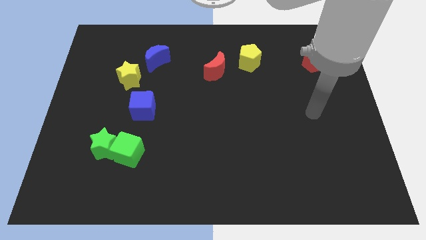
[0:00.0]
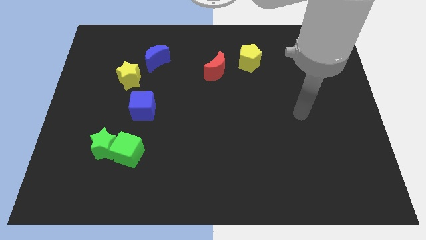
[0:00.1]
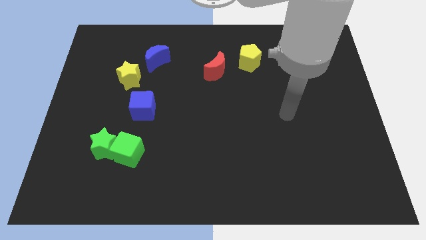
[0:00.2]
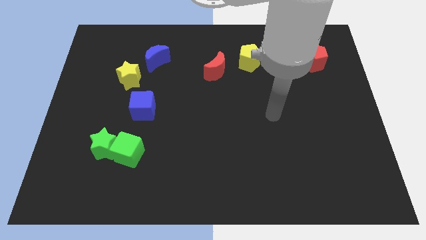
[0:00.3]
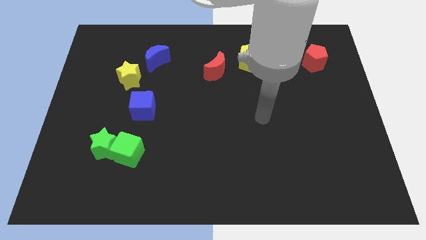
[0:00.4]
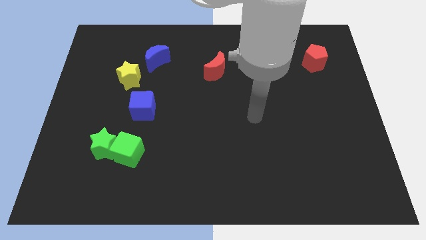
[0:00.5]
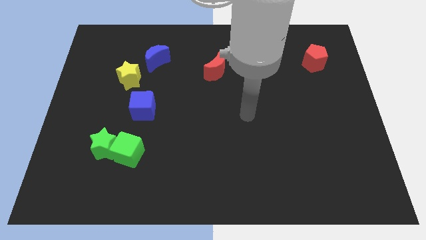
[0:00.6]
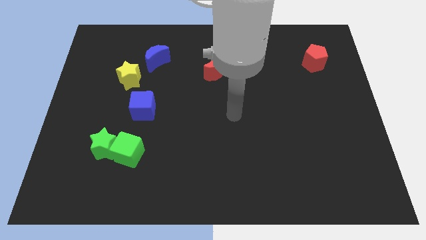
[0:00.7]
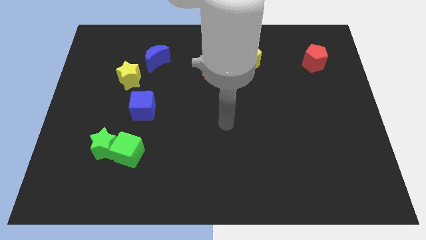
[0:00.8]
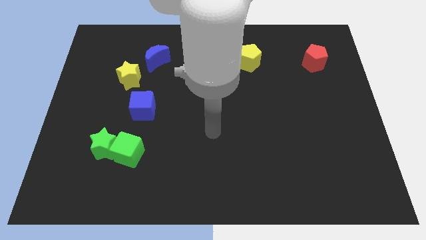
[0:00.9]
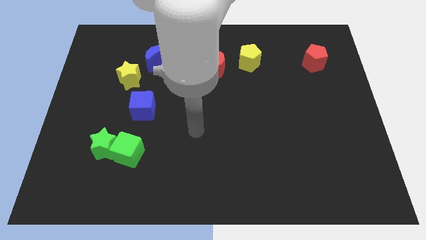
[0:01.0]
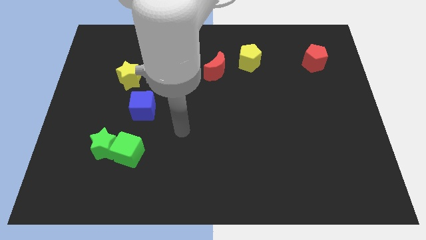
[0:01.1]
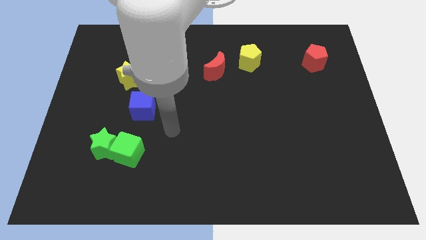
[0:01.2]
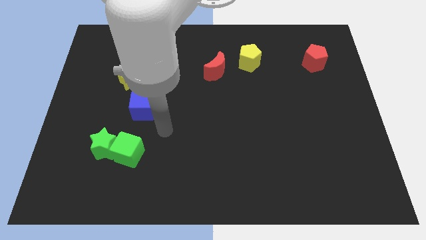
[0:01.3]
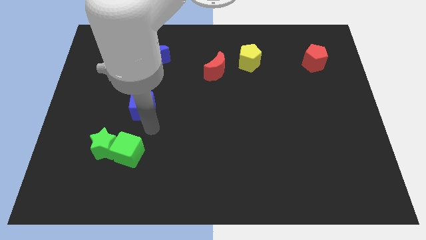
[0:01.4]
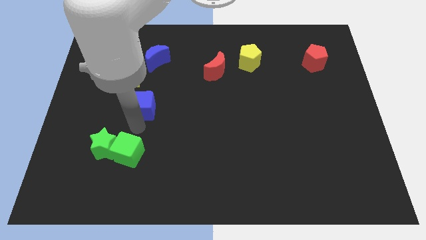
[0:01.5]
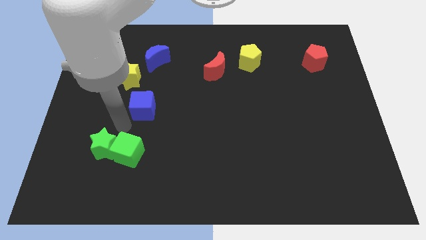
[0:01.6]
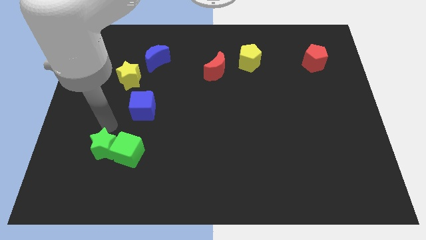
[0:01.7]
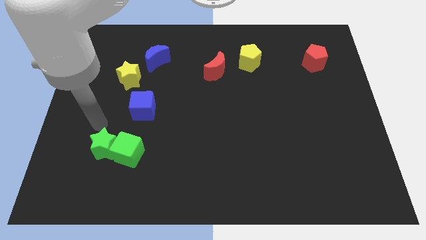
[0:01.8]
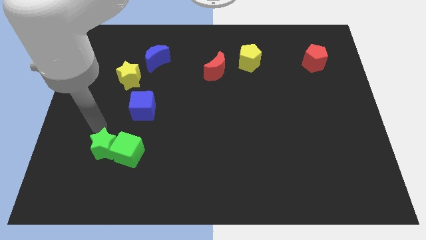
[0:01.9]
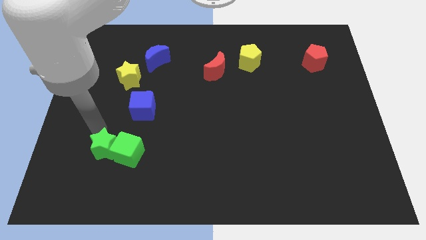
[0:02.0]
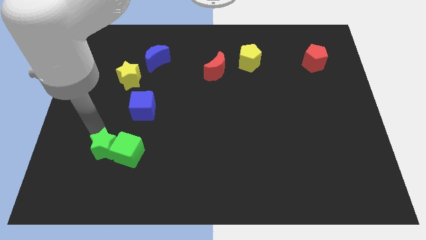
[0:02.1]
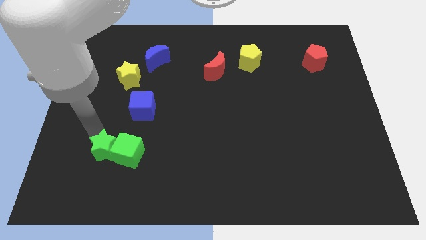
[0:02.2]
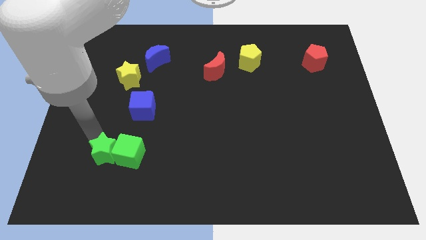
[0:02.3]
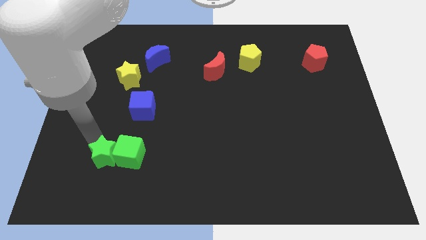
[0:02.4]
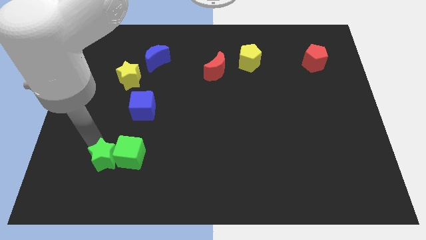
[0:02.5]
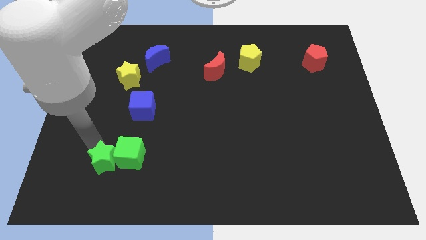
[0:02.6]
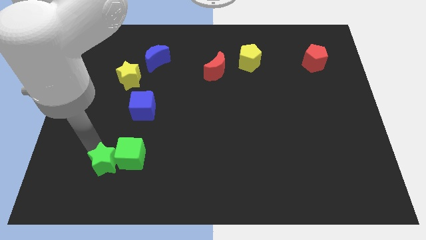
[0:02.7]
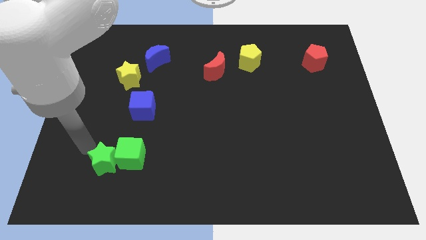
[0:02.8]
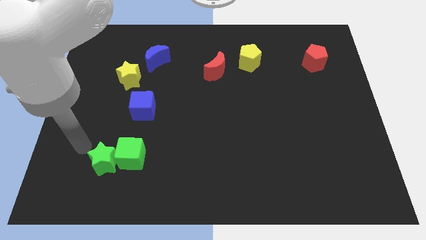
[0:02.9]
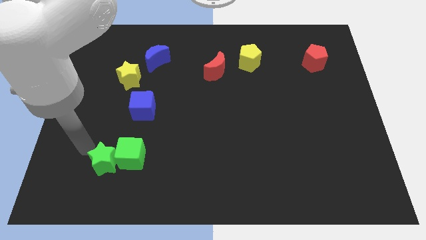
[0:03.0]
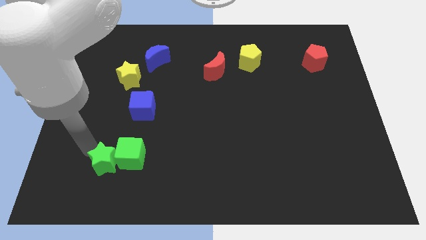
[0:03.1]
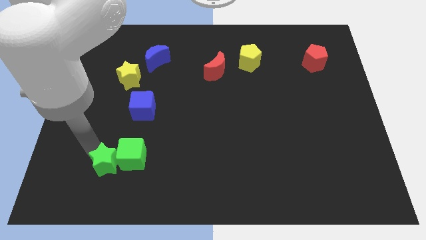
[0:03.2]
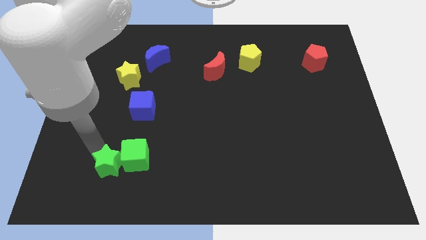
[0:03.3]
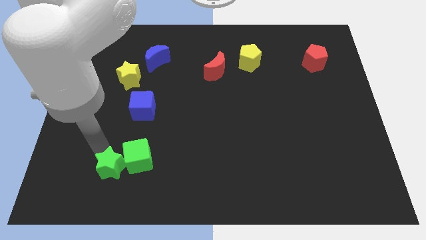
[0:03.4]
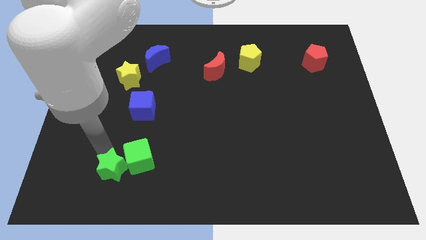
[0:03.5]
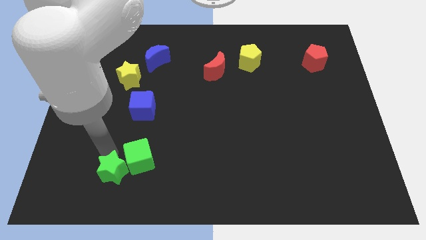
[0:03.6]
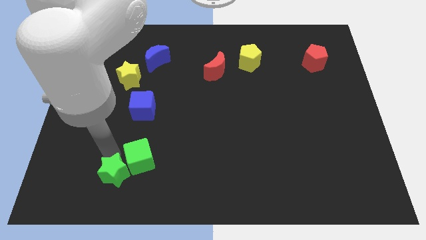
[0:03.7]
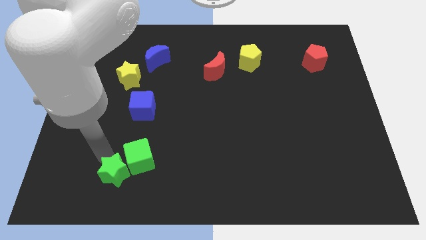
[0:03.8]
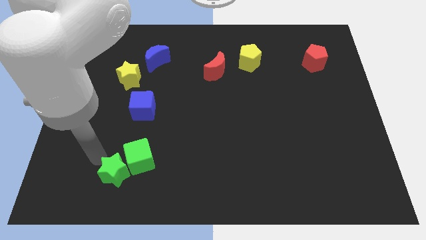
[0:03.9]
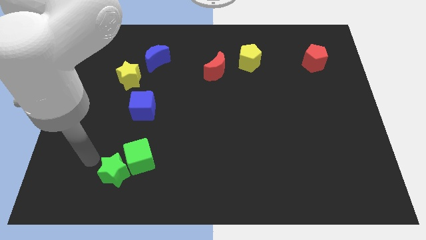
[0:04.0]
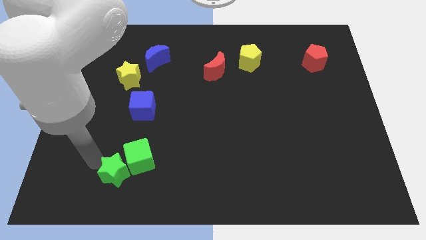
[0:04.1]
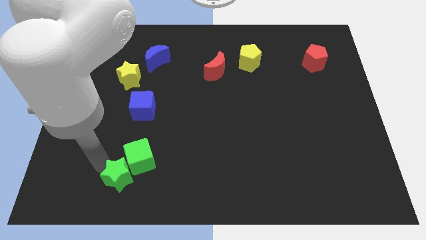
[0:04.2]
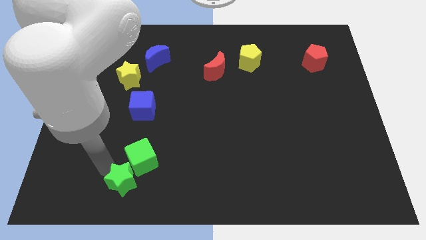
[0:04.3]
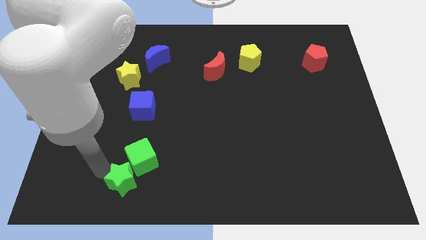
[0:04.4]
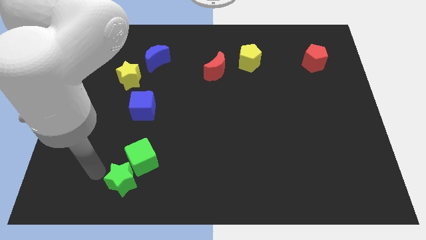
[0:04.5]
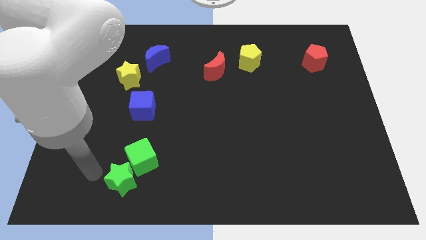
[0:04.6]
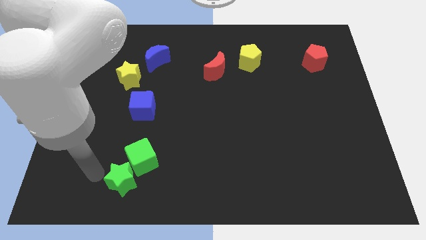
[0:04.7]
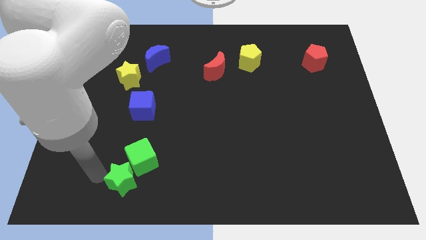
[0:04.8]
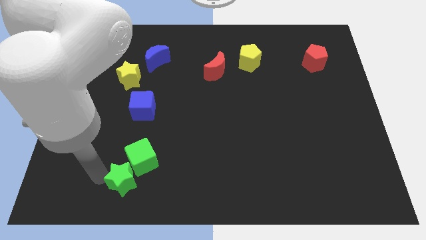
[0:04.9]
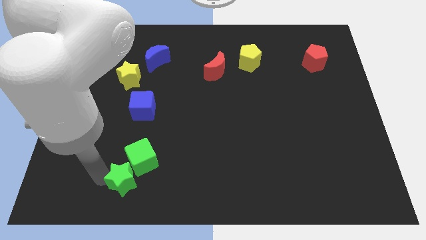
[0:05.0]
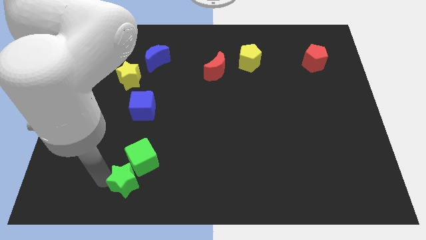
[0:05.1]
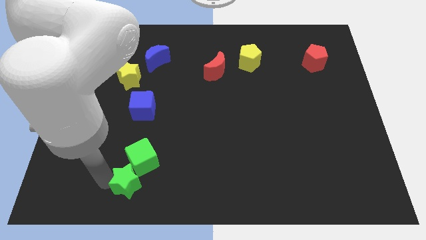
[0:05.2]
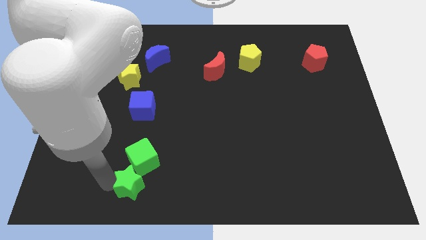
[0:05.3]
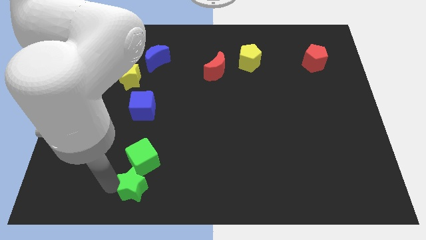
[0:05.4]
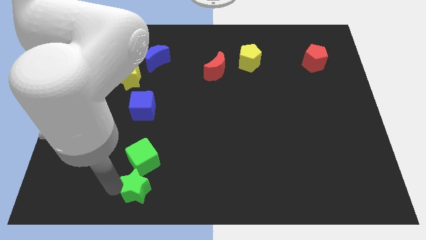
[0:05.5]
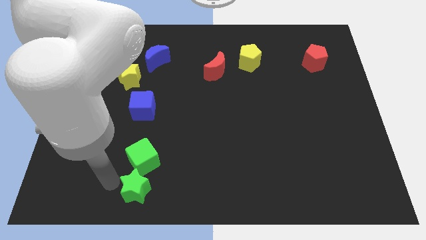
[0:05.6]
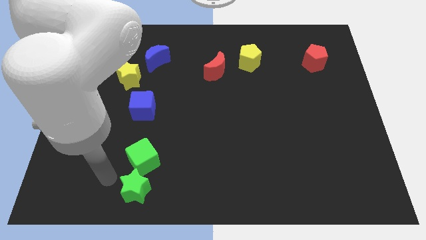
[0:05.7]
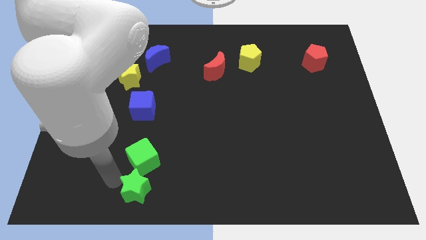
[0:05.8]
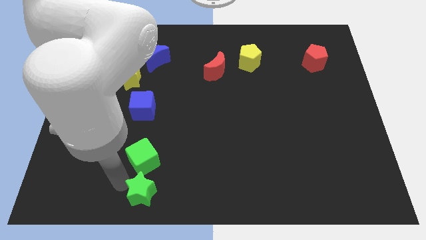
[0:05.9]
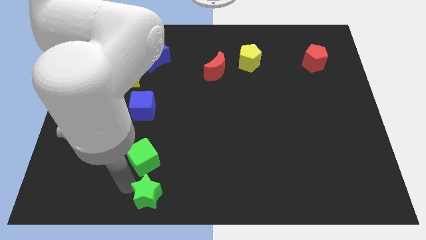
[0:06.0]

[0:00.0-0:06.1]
push the green star to the bottom

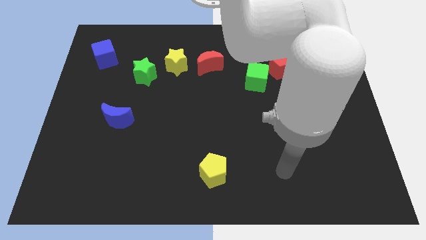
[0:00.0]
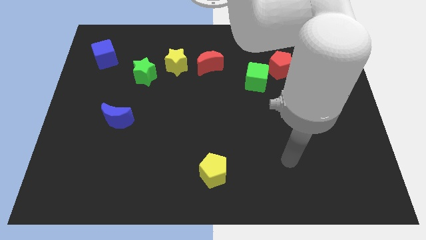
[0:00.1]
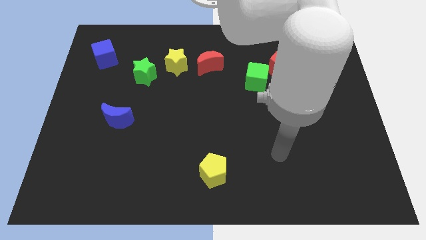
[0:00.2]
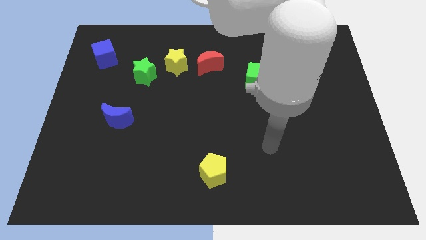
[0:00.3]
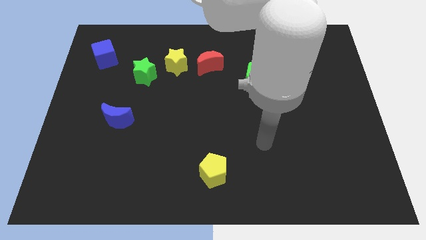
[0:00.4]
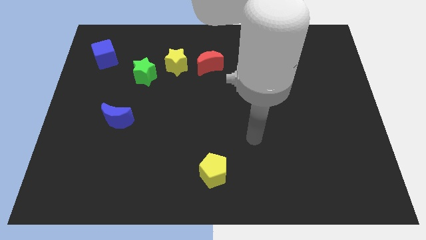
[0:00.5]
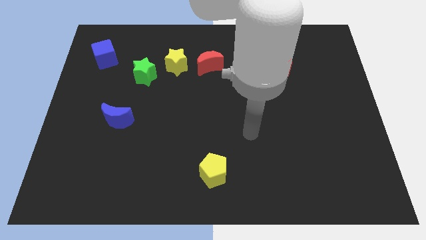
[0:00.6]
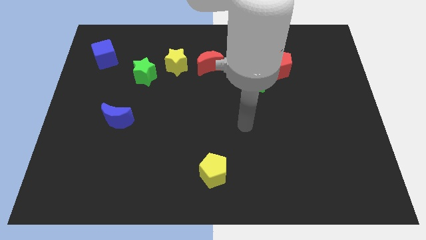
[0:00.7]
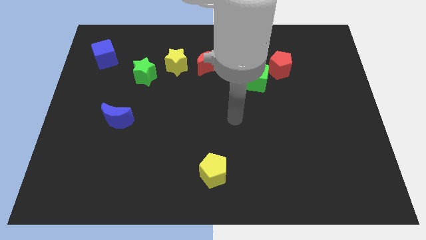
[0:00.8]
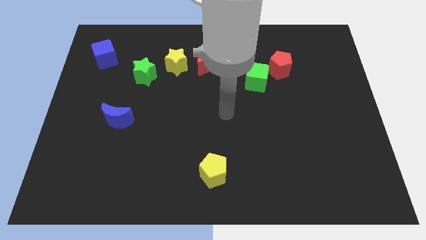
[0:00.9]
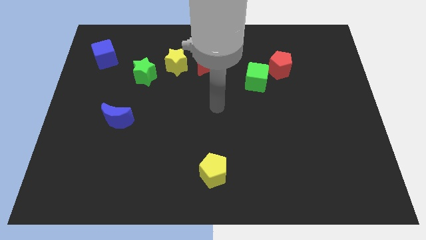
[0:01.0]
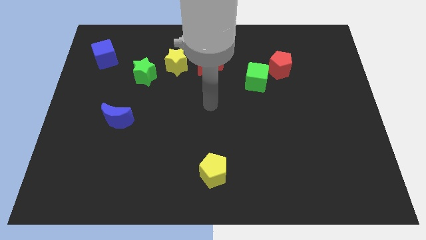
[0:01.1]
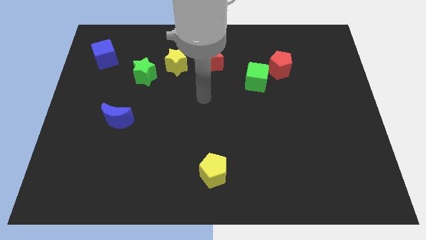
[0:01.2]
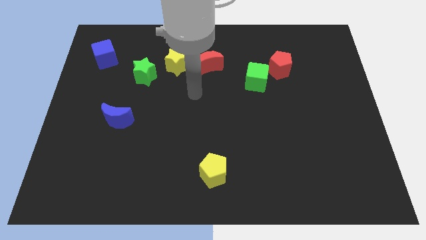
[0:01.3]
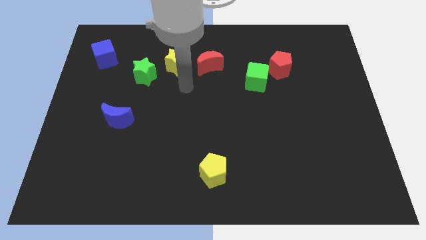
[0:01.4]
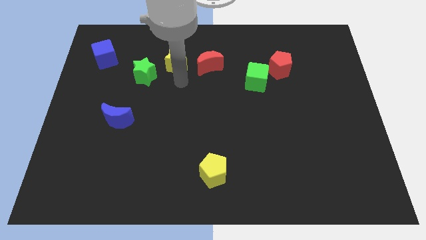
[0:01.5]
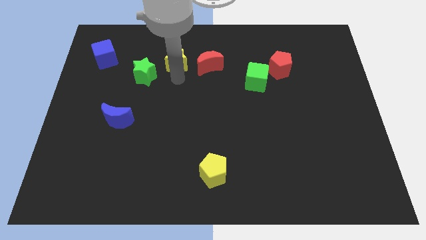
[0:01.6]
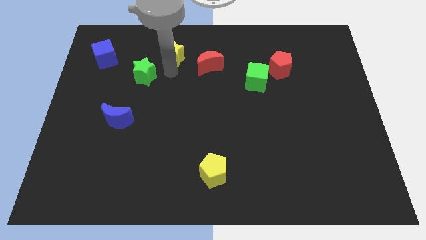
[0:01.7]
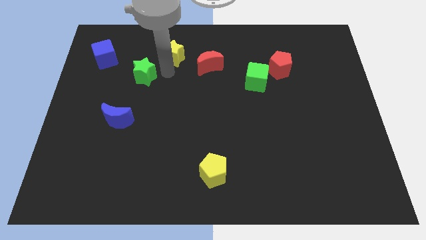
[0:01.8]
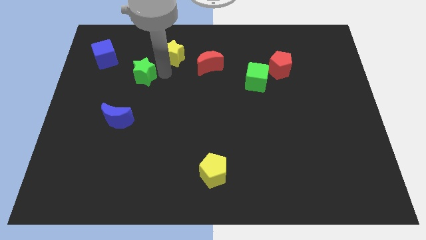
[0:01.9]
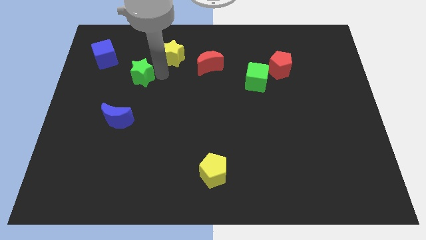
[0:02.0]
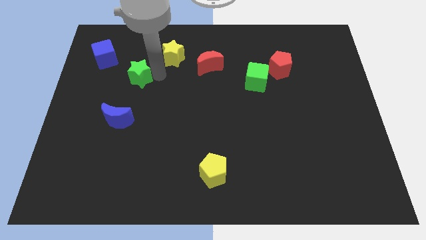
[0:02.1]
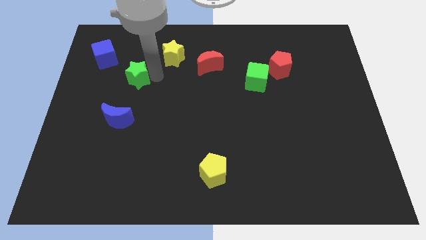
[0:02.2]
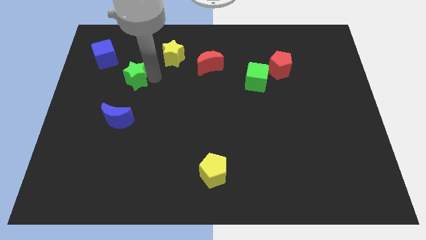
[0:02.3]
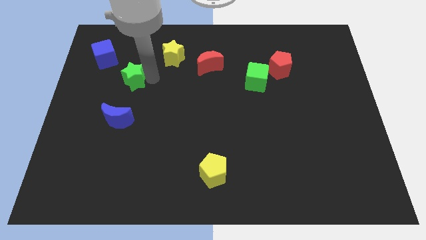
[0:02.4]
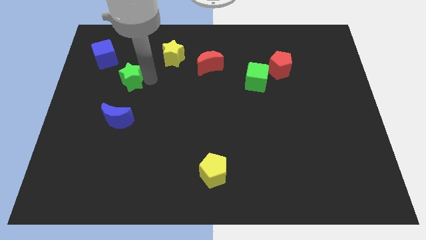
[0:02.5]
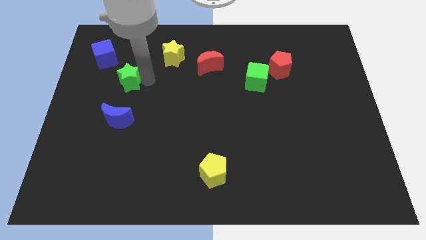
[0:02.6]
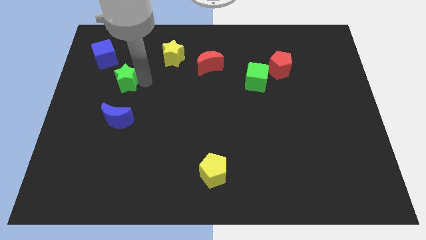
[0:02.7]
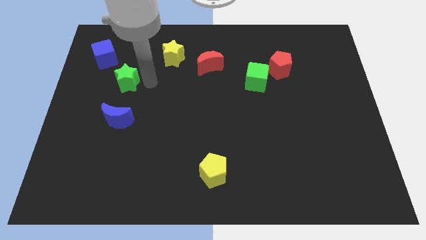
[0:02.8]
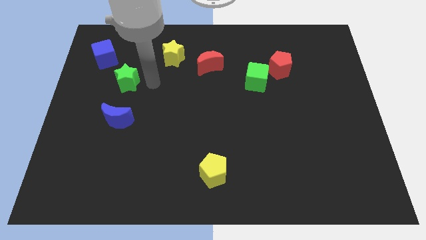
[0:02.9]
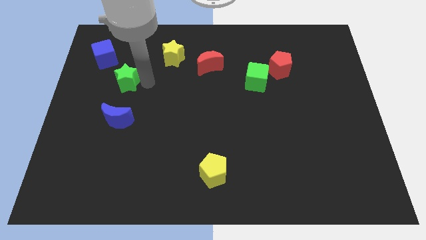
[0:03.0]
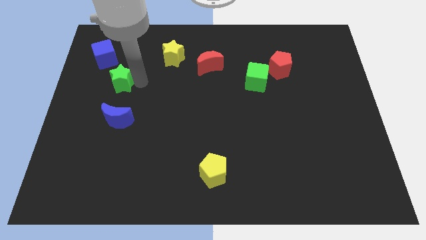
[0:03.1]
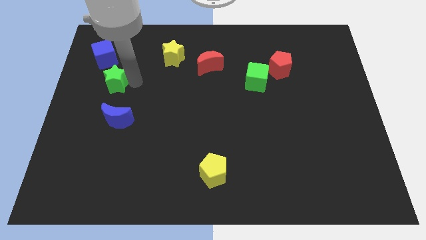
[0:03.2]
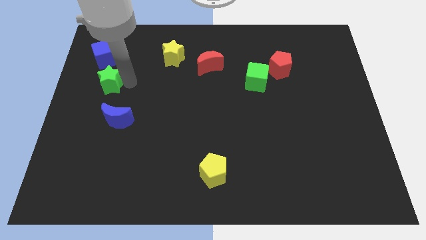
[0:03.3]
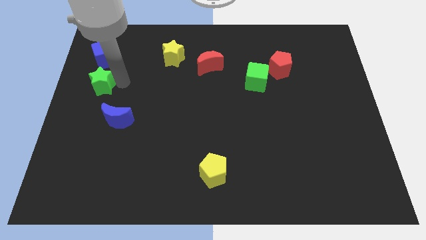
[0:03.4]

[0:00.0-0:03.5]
put the green star to the left side
